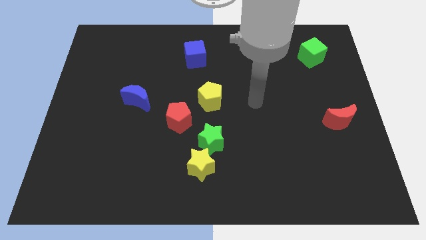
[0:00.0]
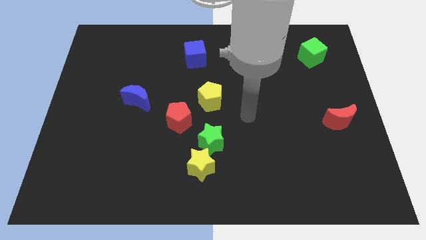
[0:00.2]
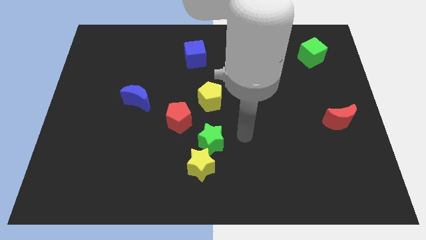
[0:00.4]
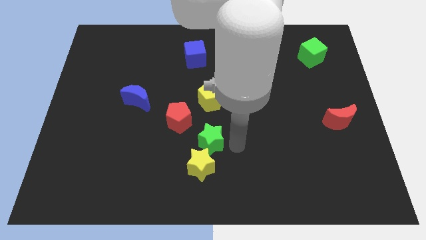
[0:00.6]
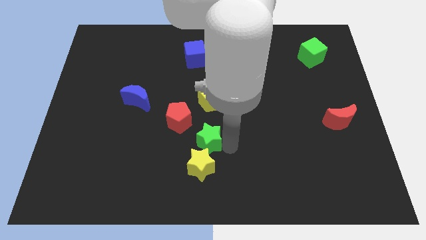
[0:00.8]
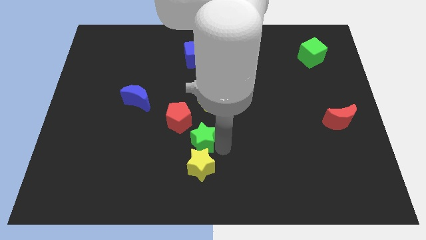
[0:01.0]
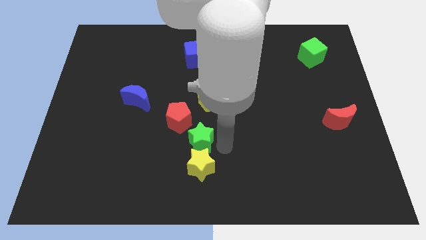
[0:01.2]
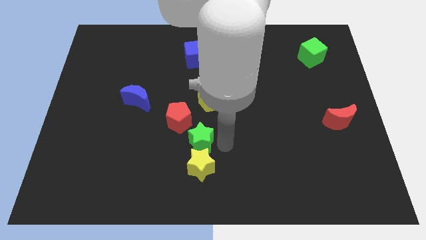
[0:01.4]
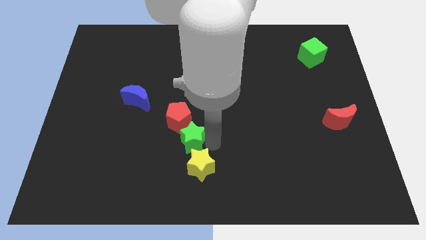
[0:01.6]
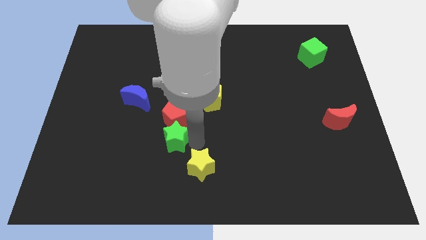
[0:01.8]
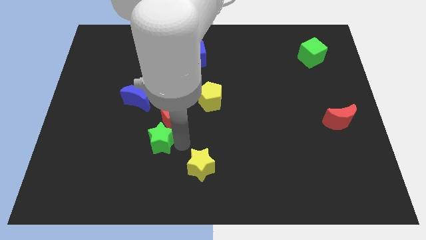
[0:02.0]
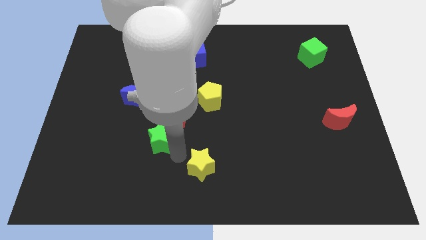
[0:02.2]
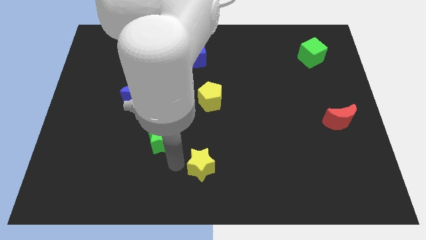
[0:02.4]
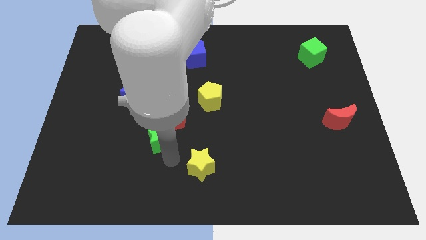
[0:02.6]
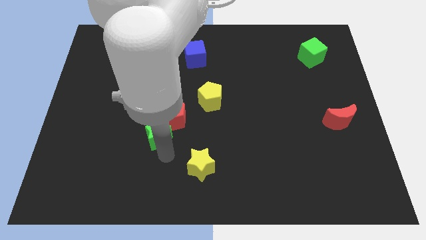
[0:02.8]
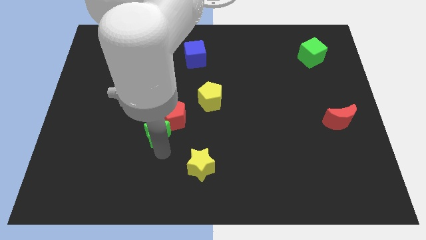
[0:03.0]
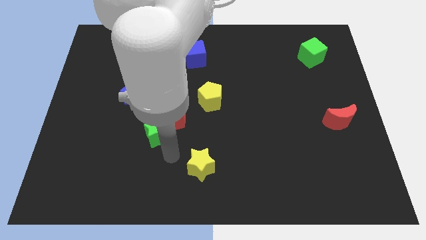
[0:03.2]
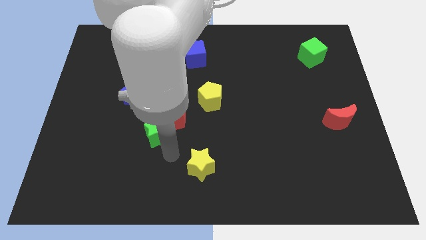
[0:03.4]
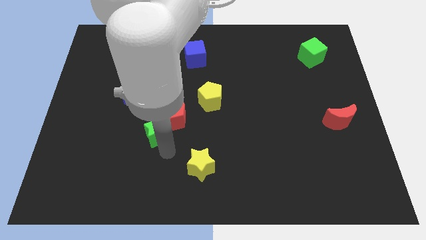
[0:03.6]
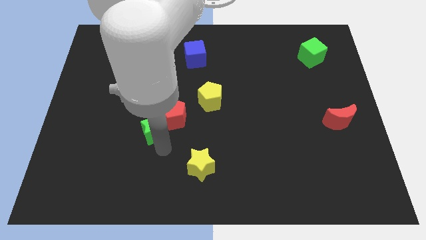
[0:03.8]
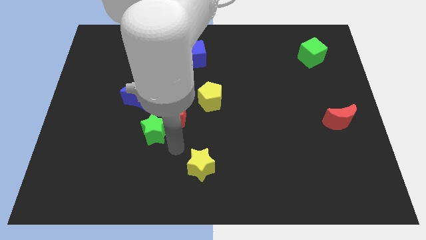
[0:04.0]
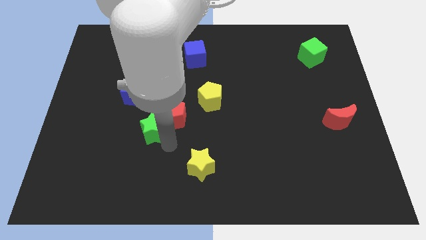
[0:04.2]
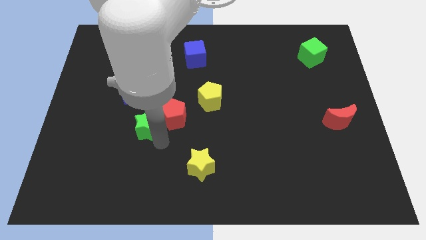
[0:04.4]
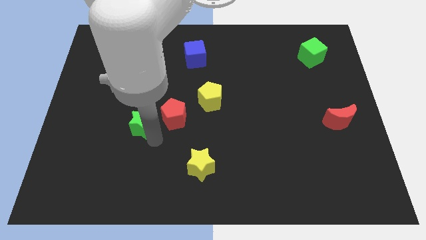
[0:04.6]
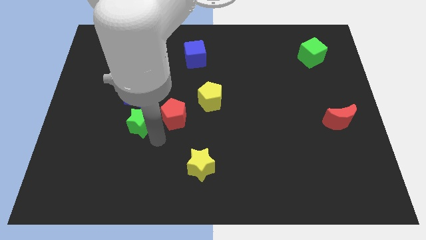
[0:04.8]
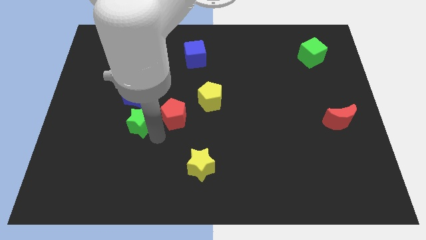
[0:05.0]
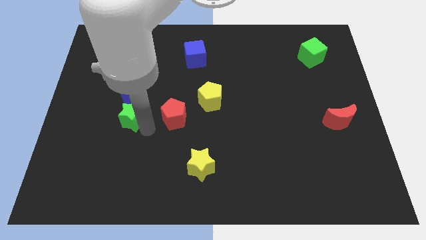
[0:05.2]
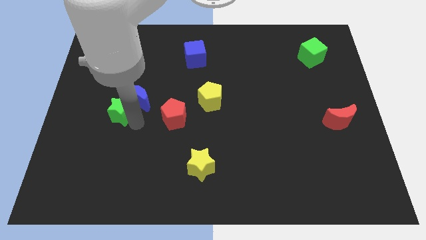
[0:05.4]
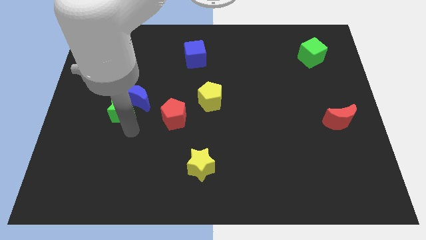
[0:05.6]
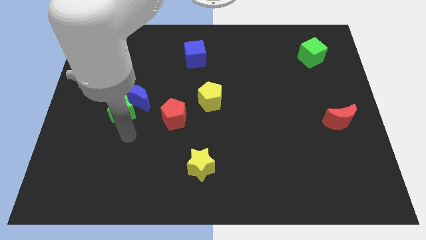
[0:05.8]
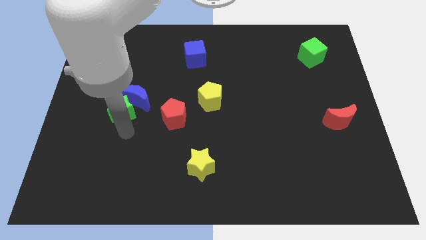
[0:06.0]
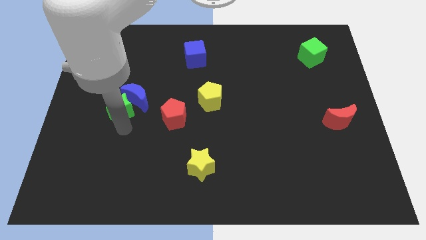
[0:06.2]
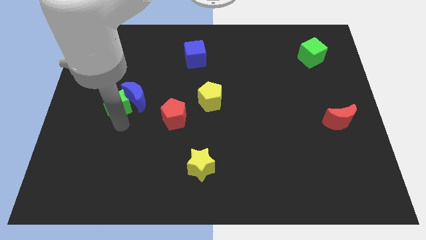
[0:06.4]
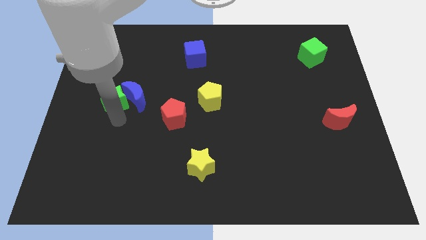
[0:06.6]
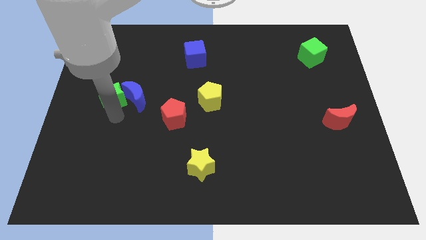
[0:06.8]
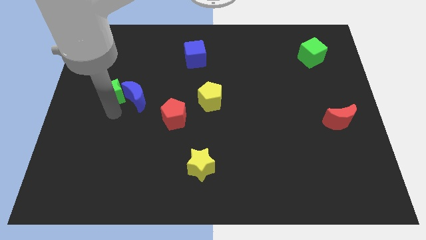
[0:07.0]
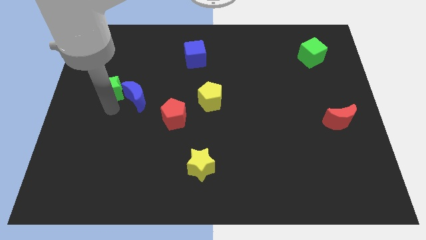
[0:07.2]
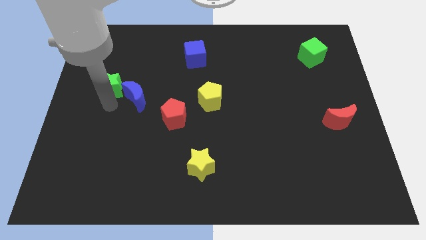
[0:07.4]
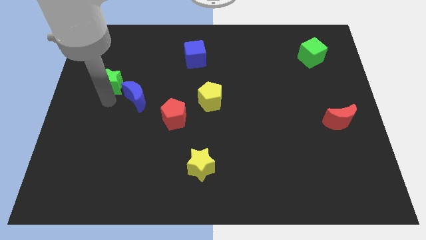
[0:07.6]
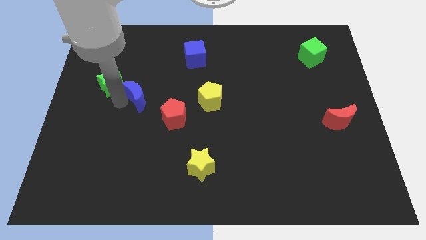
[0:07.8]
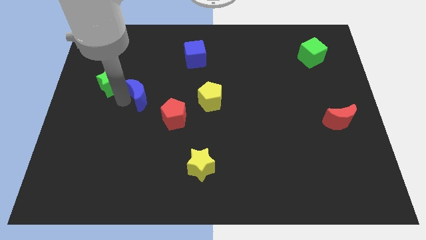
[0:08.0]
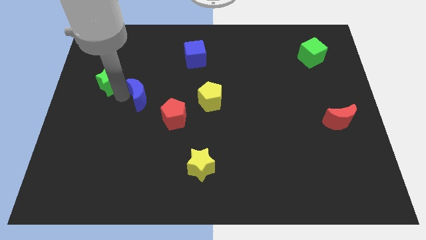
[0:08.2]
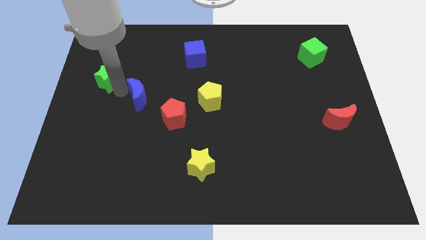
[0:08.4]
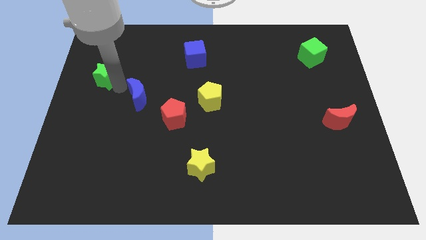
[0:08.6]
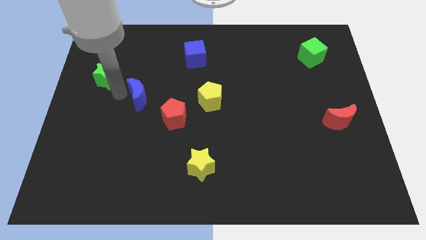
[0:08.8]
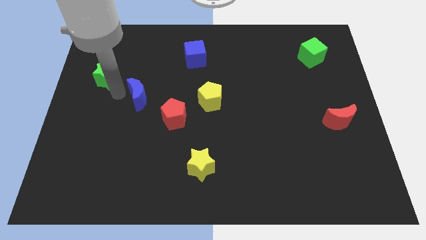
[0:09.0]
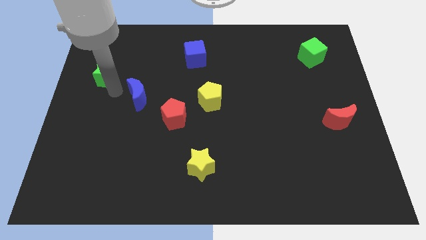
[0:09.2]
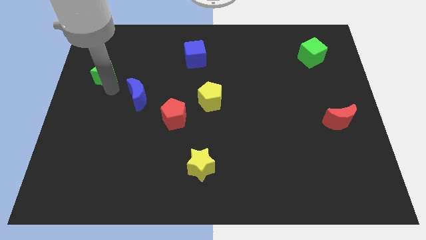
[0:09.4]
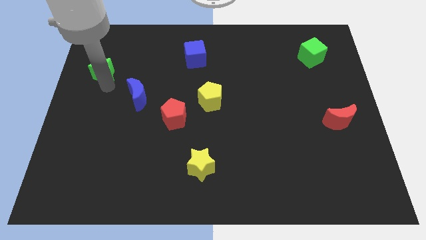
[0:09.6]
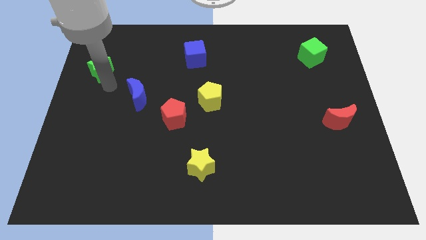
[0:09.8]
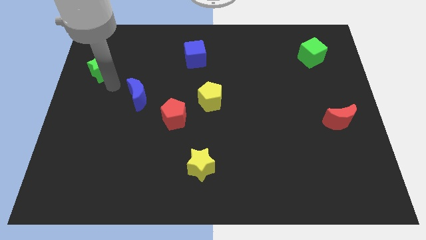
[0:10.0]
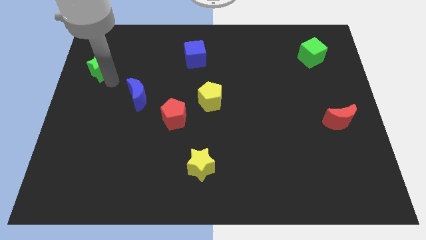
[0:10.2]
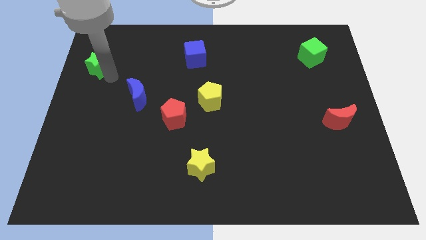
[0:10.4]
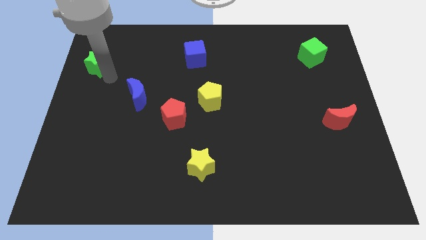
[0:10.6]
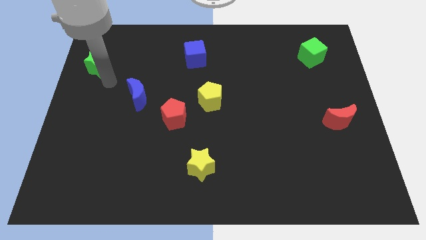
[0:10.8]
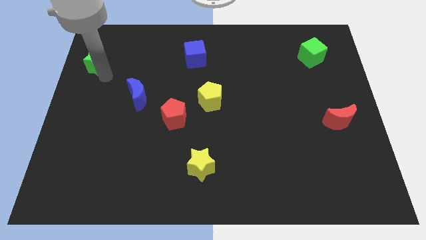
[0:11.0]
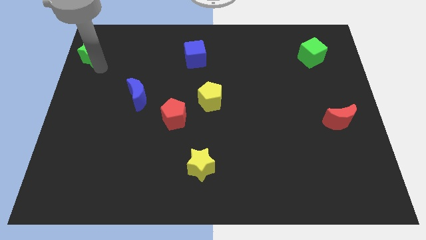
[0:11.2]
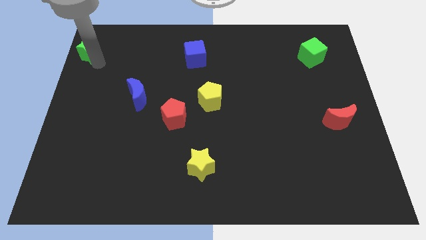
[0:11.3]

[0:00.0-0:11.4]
push the green star to the top left of the board
